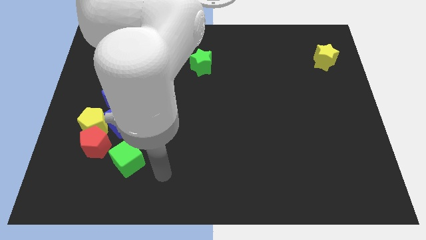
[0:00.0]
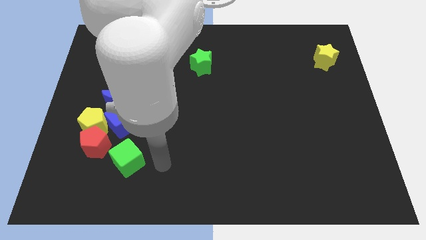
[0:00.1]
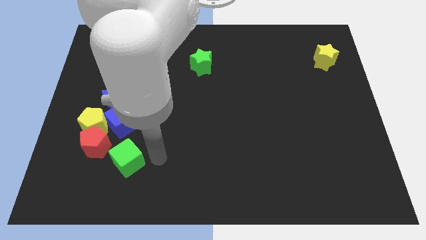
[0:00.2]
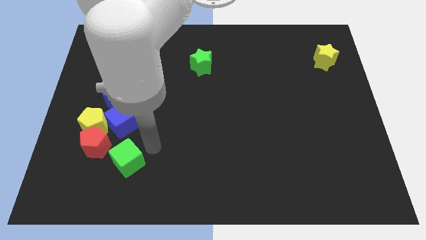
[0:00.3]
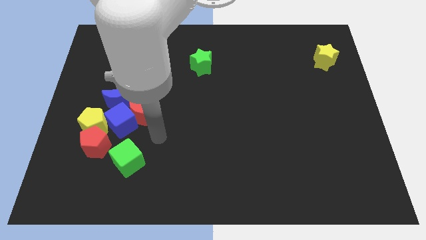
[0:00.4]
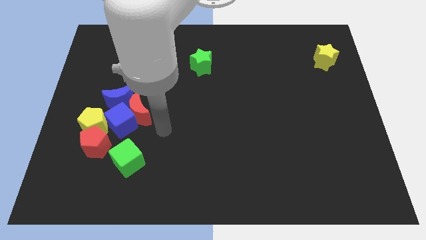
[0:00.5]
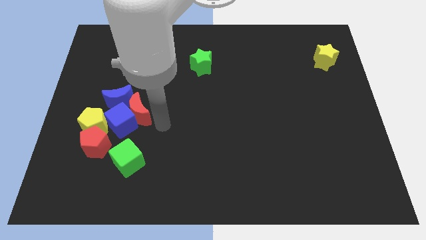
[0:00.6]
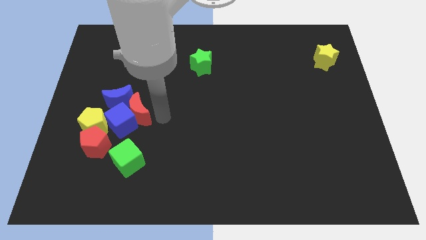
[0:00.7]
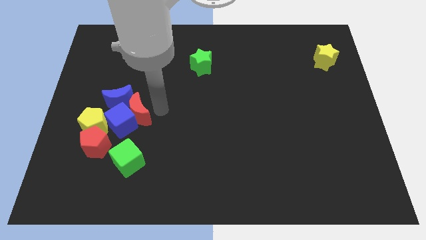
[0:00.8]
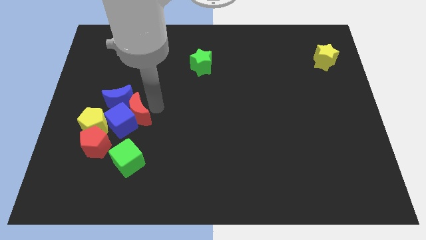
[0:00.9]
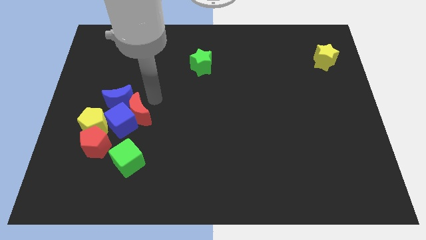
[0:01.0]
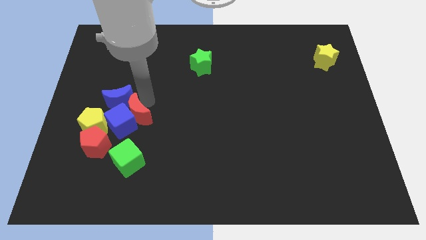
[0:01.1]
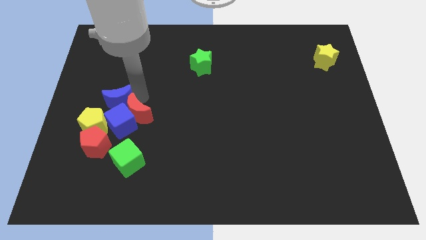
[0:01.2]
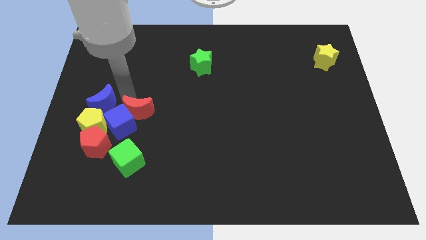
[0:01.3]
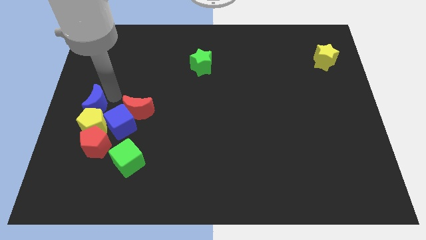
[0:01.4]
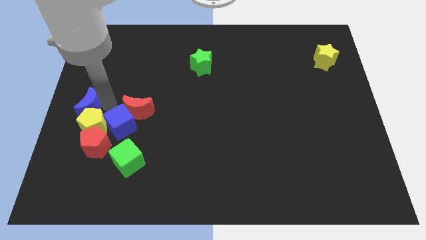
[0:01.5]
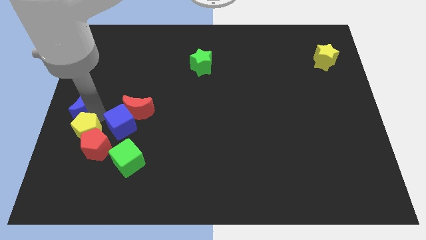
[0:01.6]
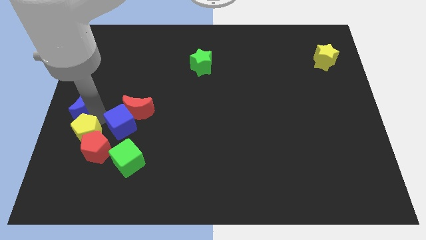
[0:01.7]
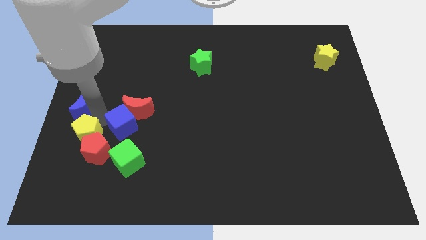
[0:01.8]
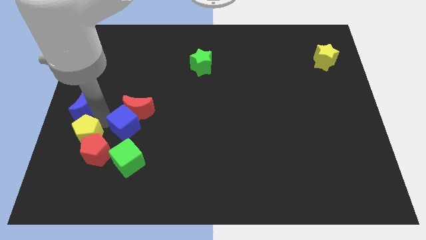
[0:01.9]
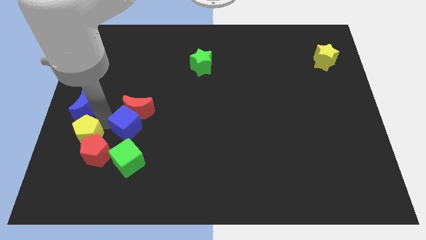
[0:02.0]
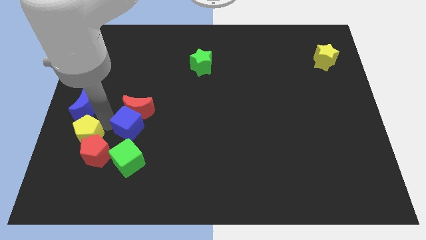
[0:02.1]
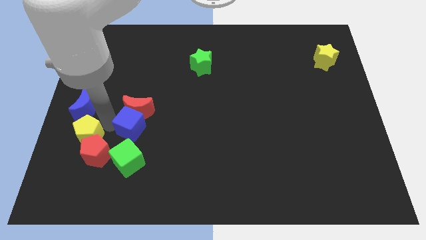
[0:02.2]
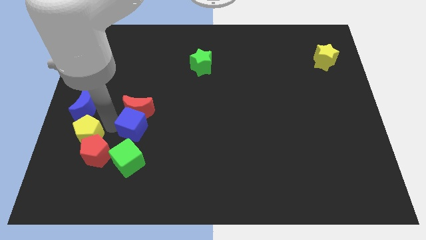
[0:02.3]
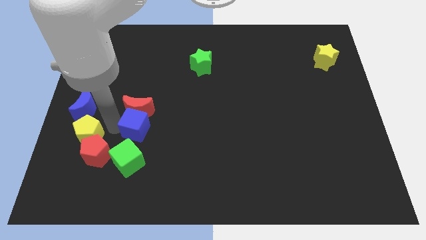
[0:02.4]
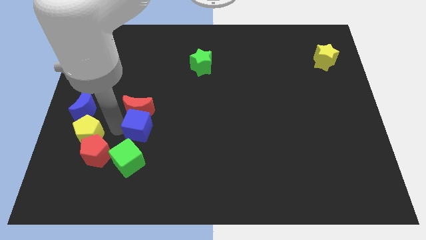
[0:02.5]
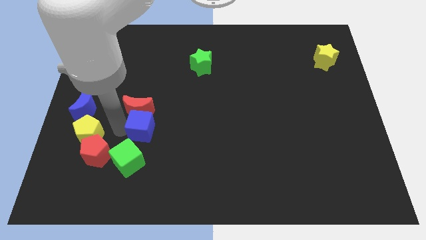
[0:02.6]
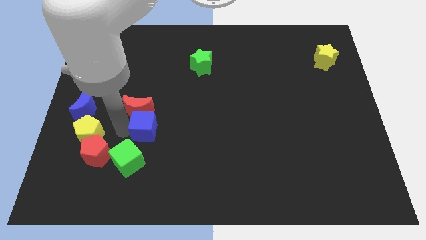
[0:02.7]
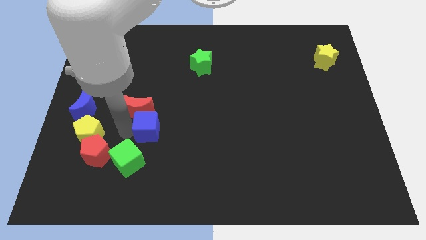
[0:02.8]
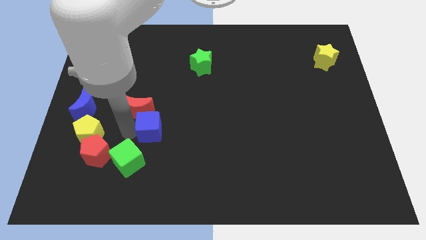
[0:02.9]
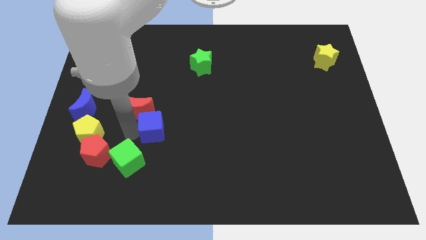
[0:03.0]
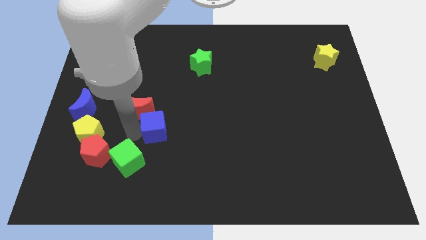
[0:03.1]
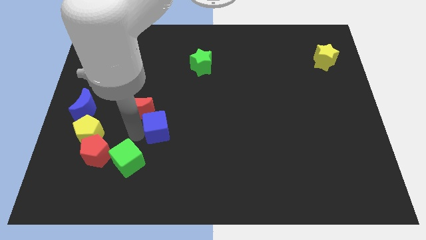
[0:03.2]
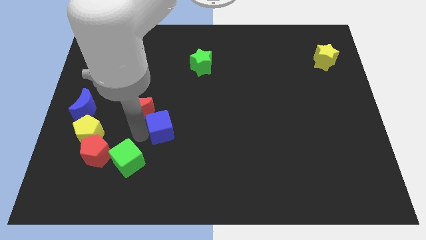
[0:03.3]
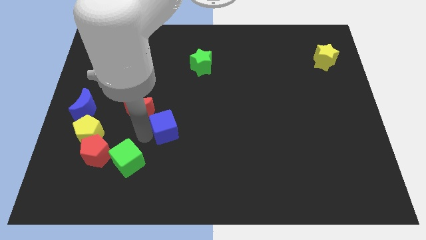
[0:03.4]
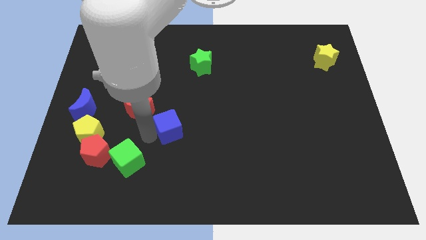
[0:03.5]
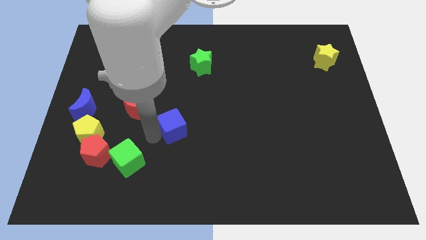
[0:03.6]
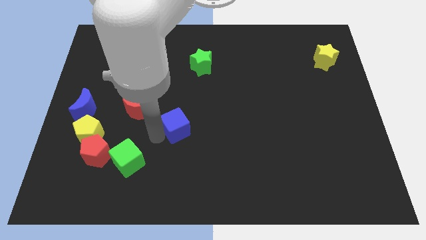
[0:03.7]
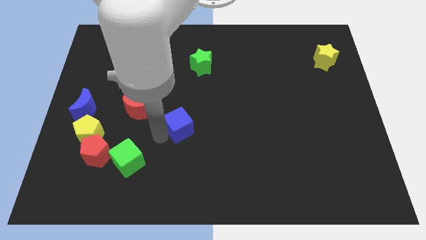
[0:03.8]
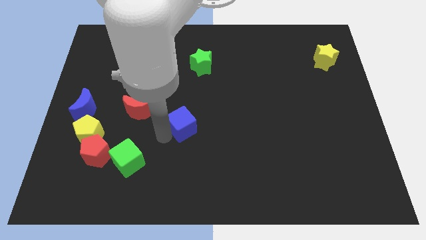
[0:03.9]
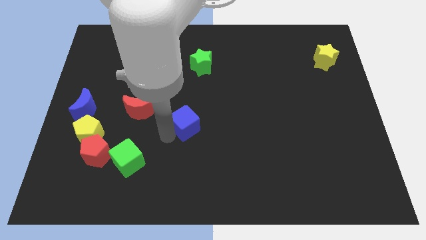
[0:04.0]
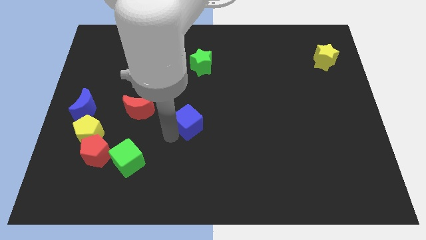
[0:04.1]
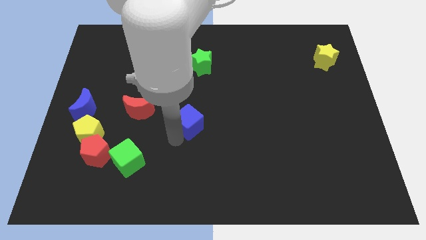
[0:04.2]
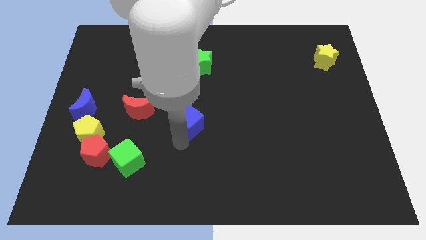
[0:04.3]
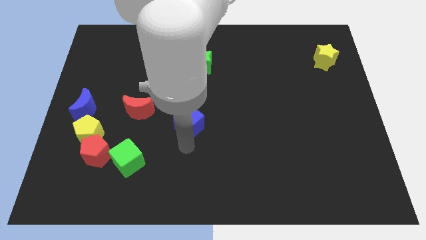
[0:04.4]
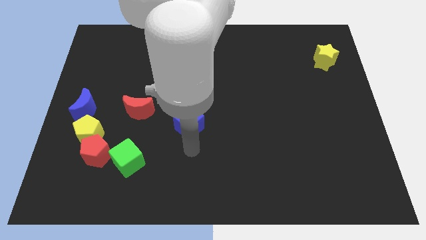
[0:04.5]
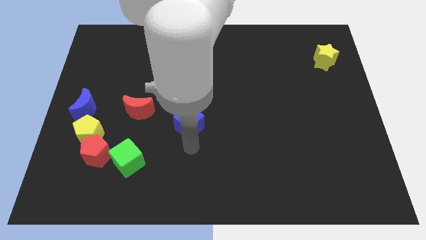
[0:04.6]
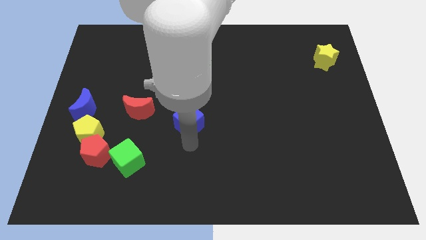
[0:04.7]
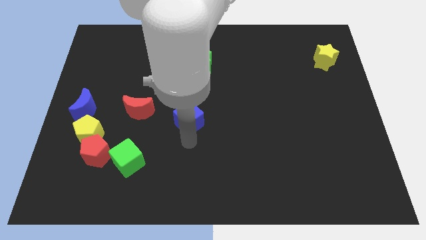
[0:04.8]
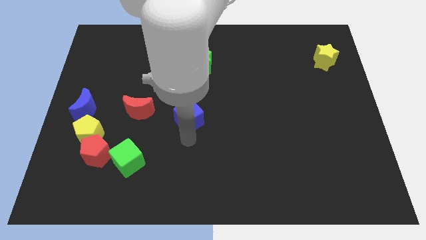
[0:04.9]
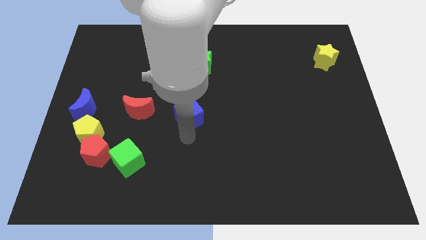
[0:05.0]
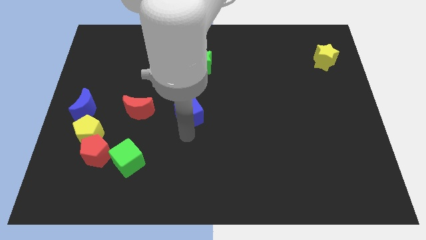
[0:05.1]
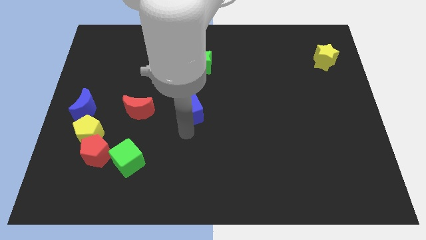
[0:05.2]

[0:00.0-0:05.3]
push the blue cube to the bottom side of the green star
